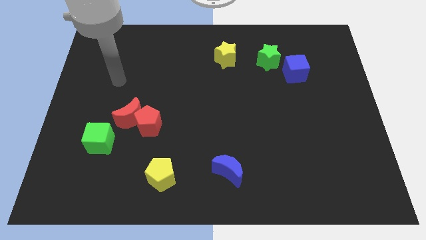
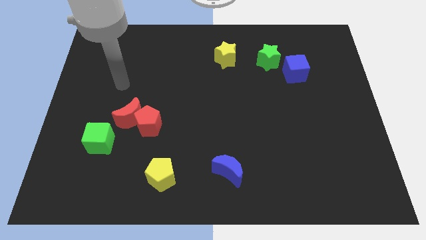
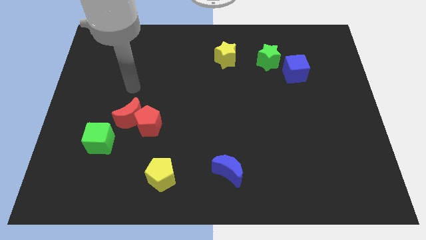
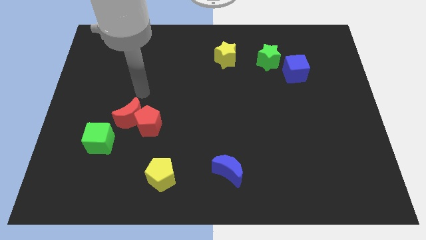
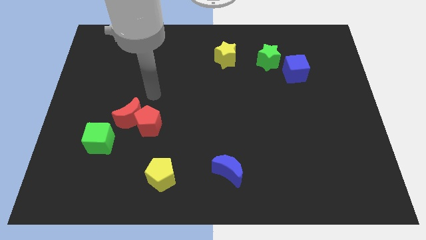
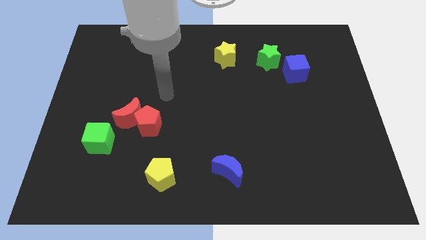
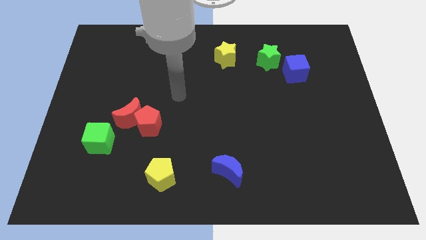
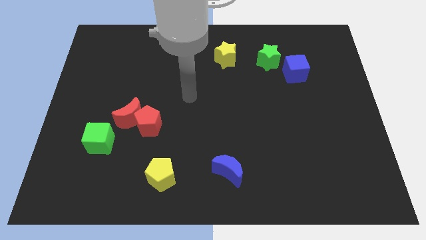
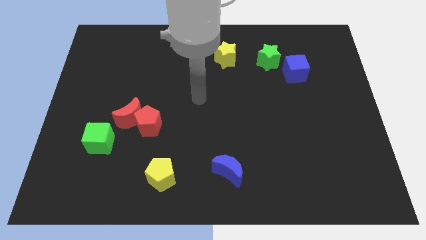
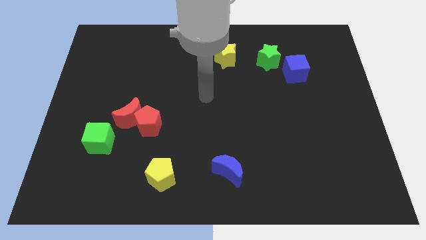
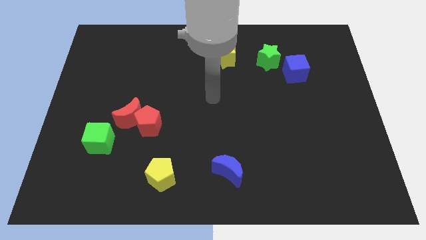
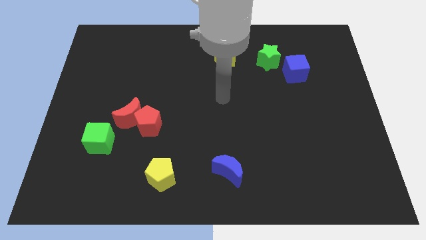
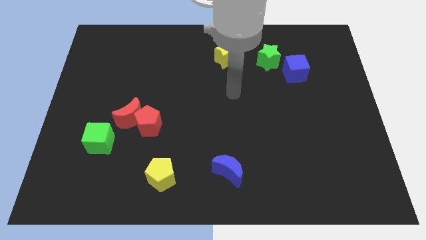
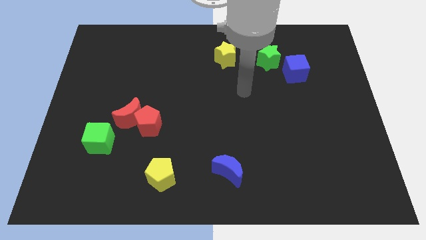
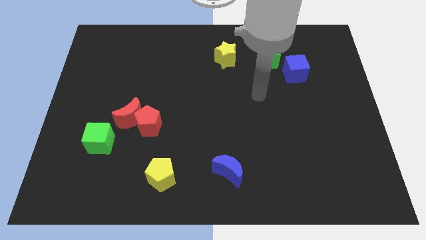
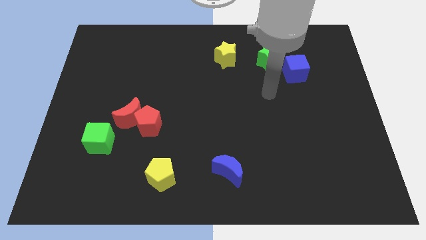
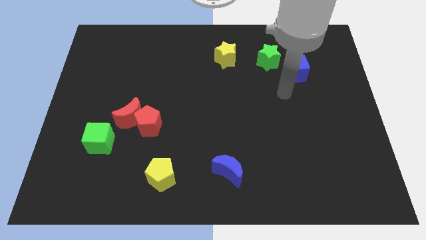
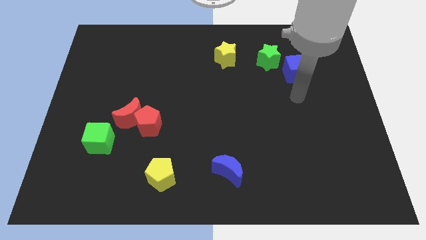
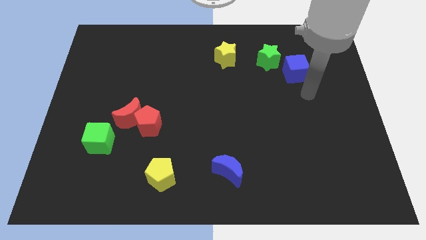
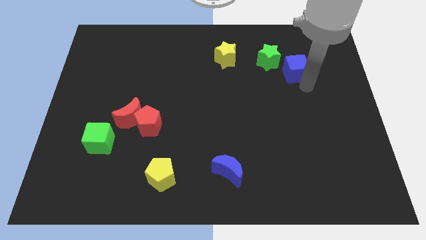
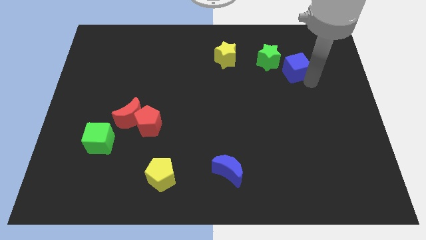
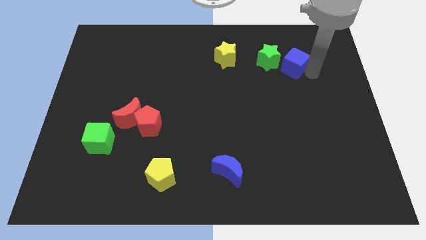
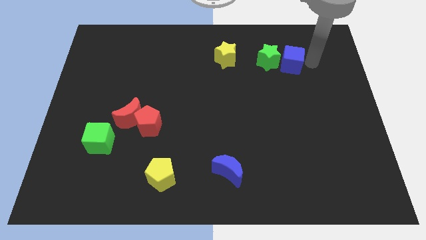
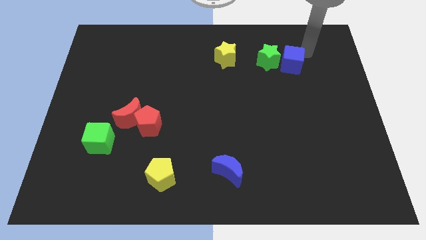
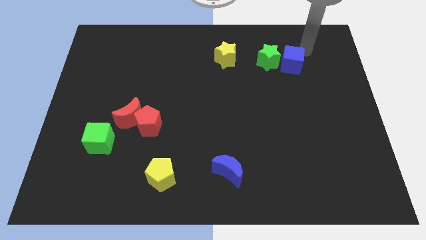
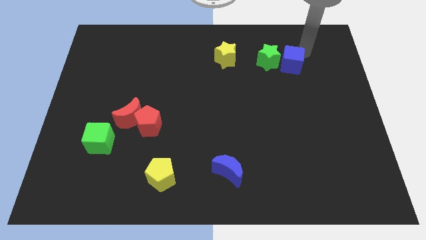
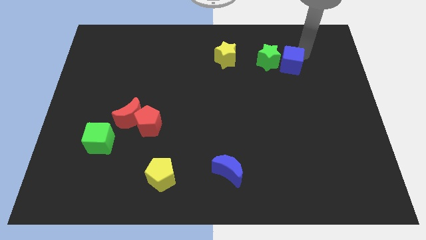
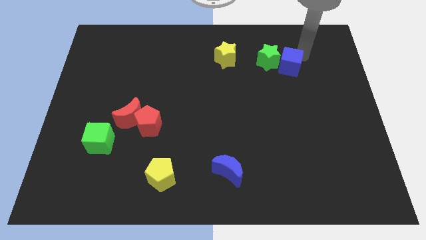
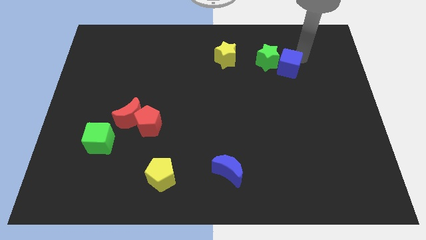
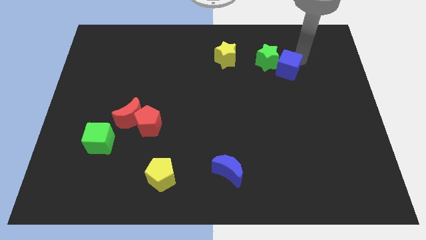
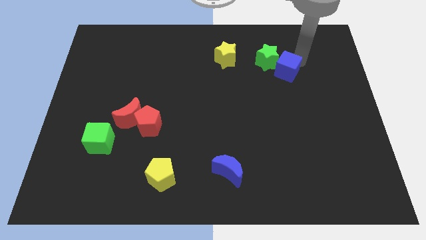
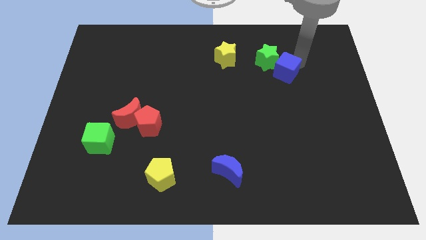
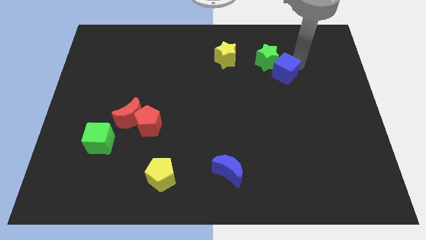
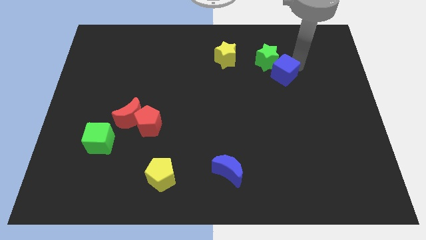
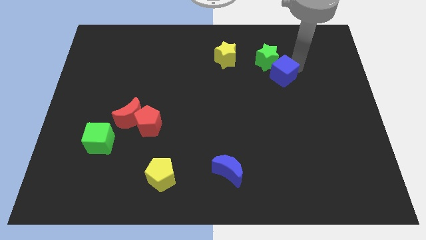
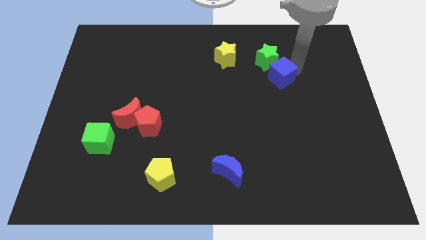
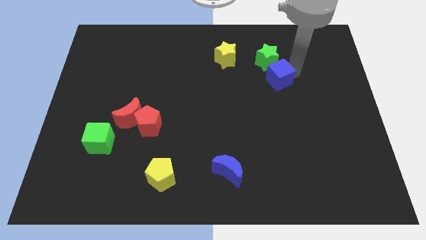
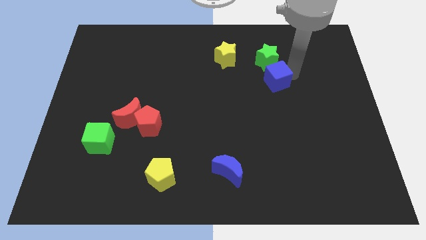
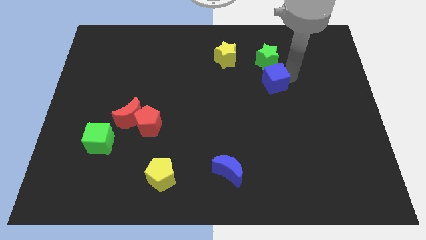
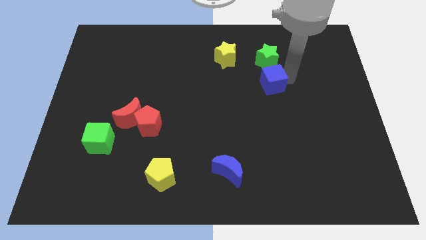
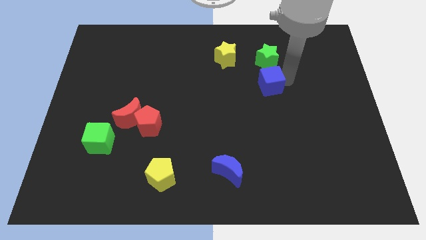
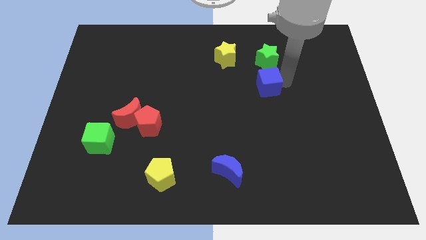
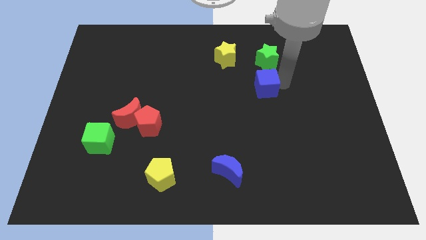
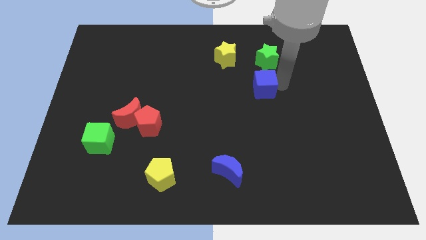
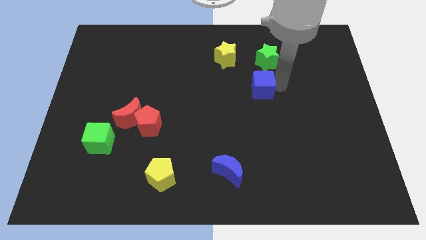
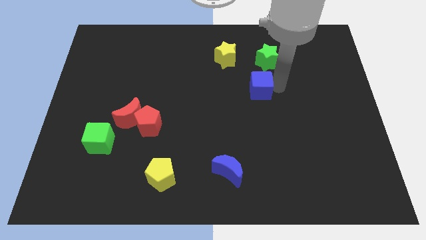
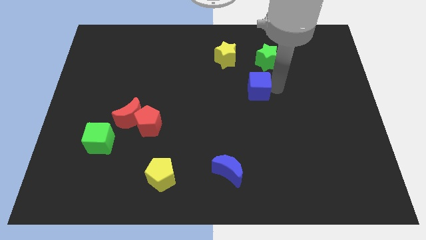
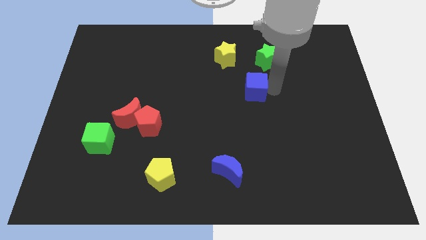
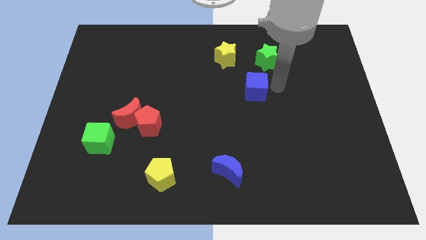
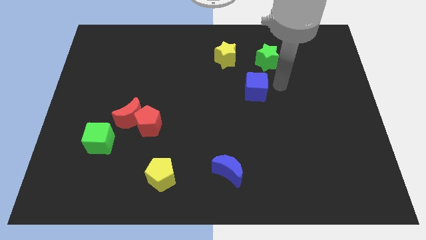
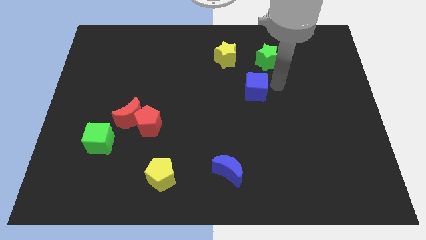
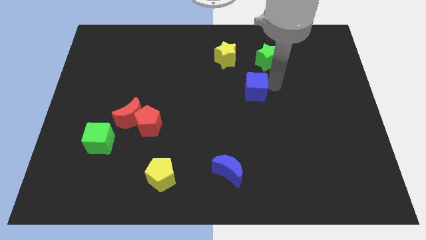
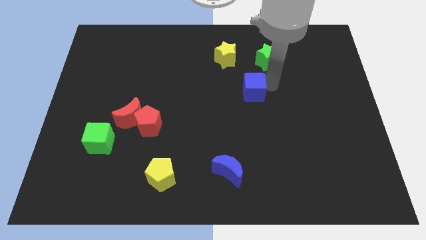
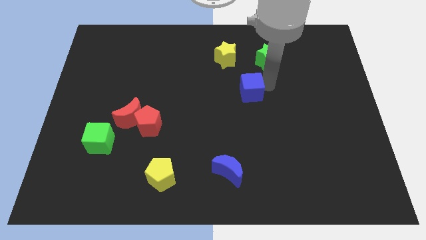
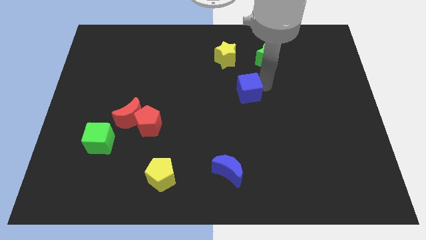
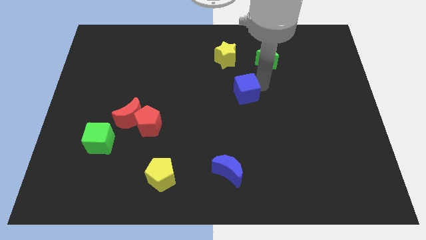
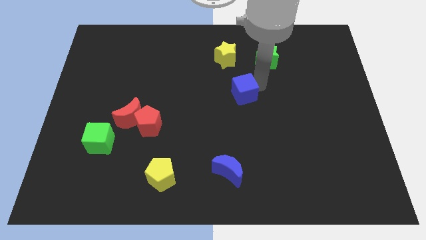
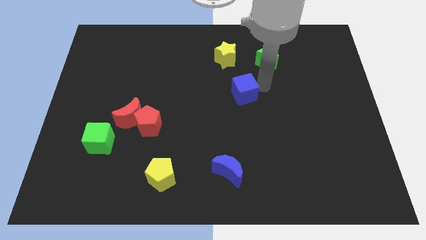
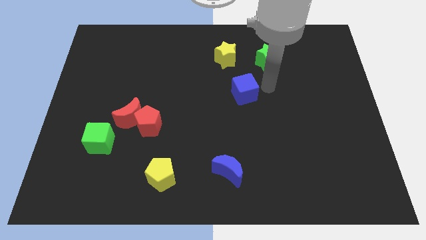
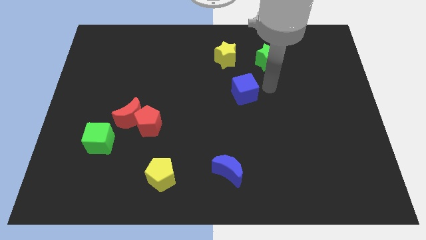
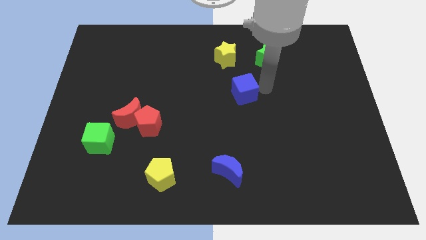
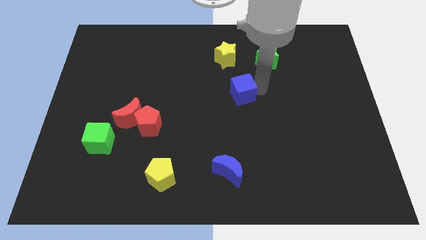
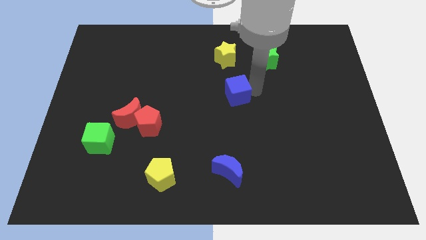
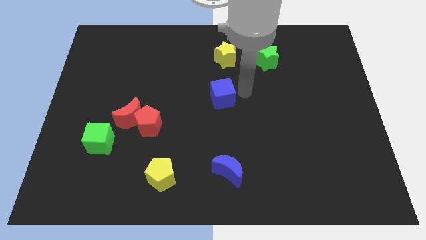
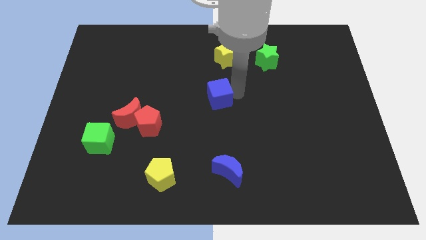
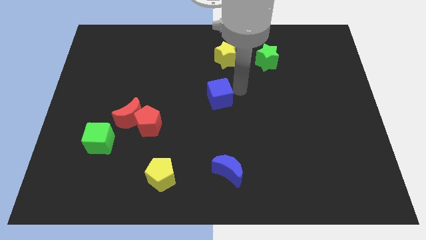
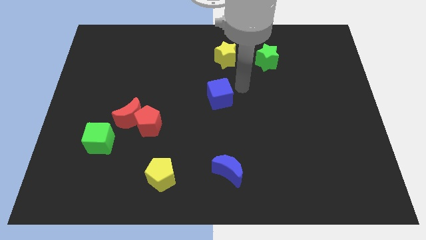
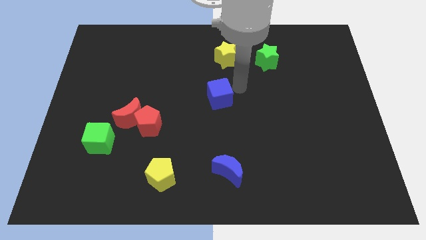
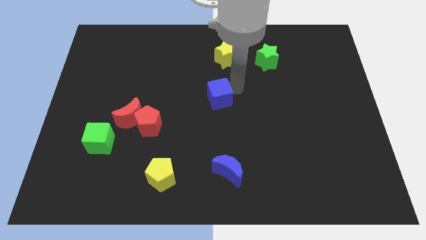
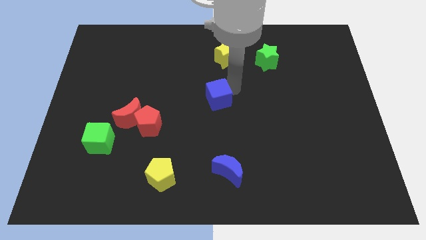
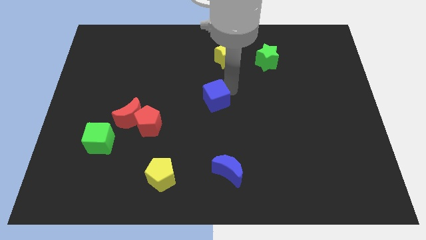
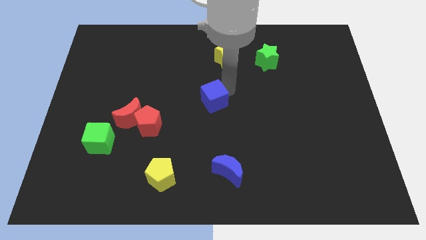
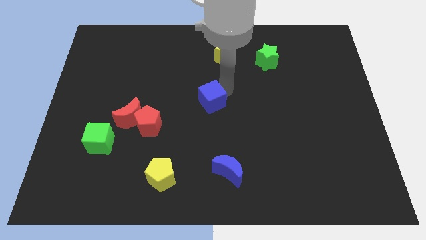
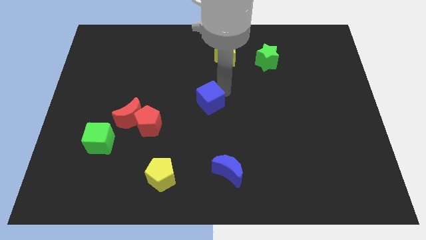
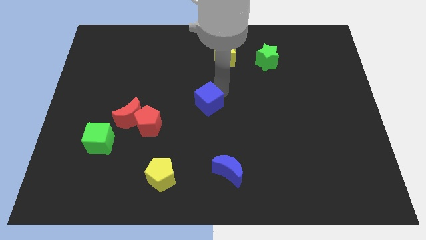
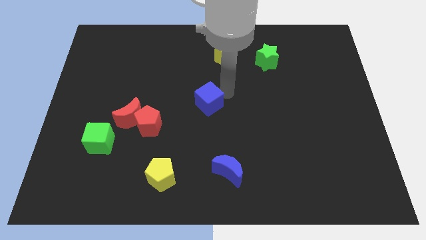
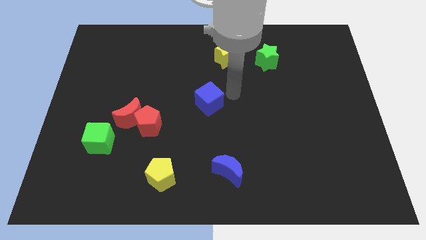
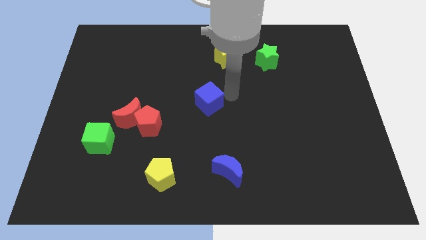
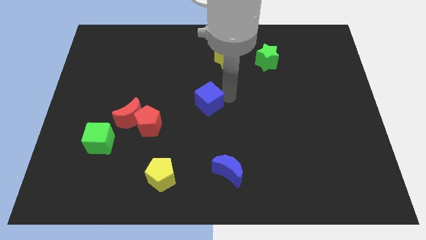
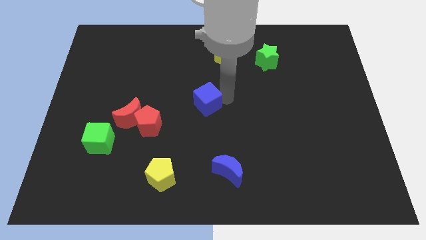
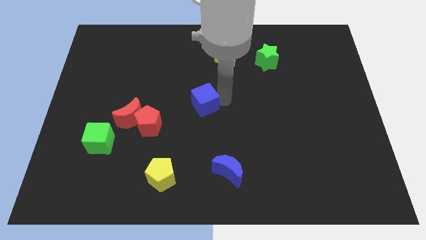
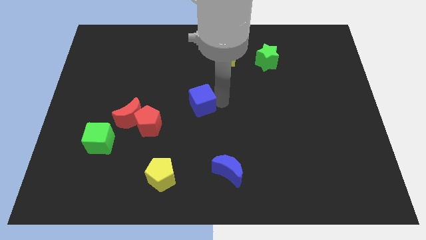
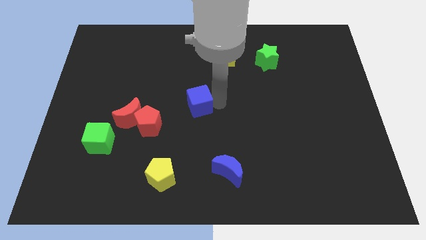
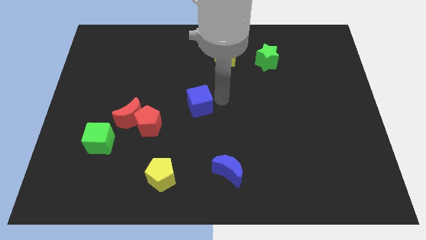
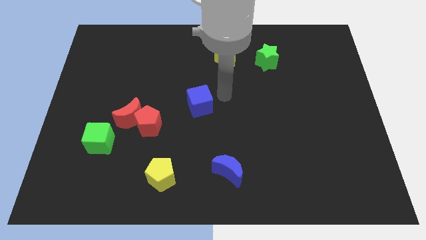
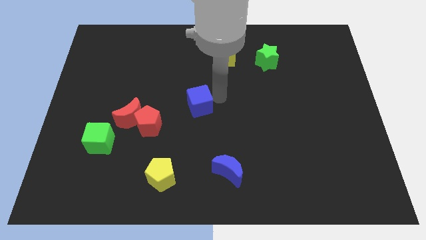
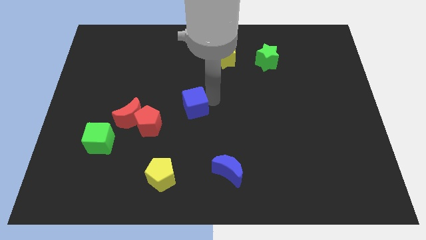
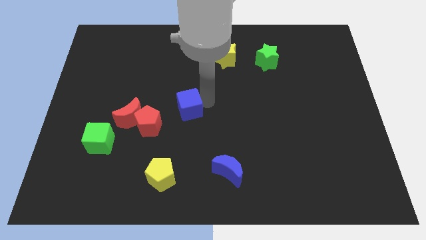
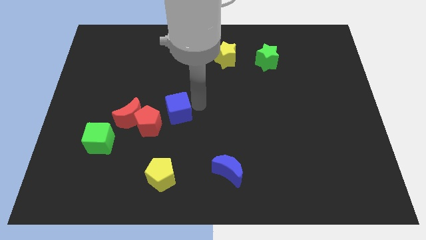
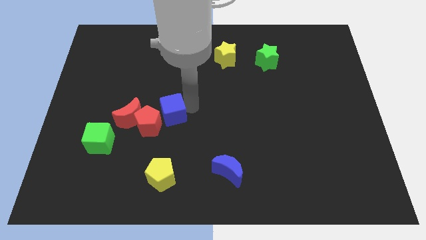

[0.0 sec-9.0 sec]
slide the blue cube towards the red pentagon
